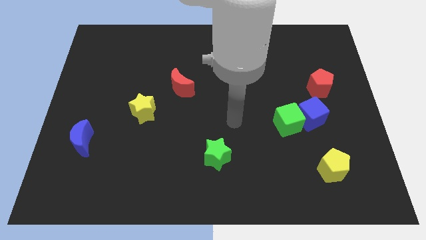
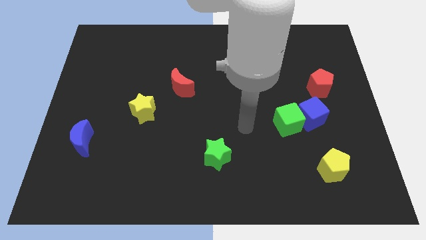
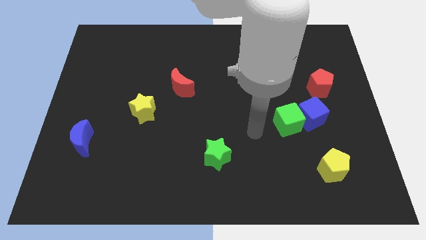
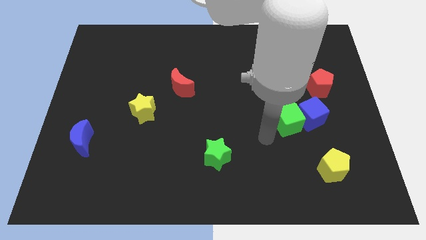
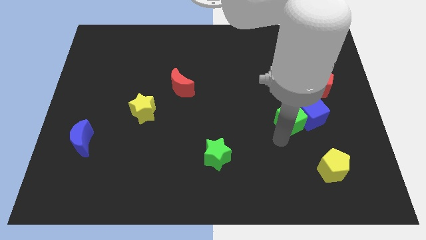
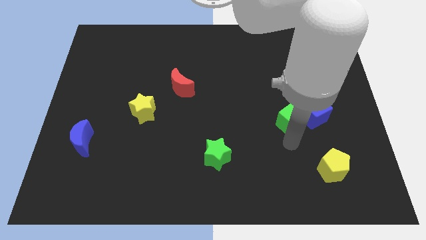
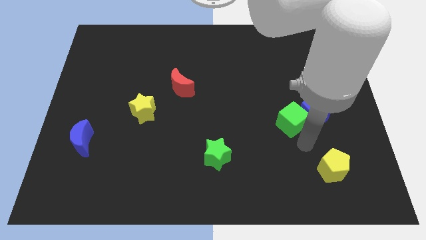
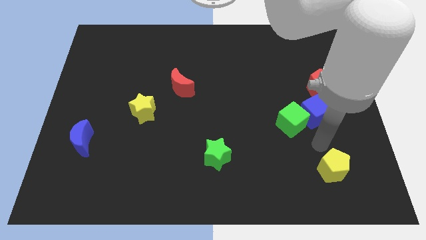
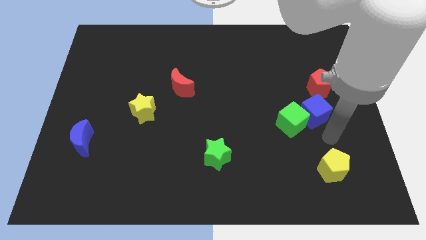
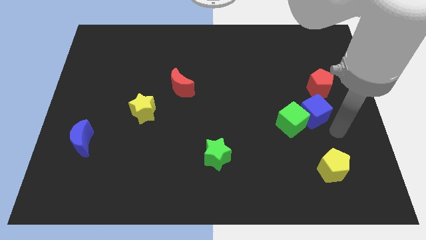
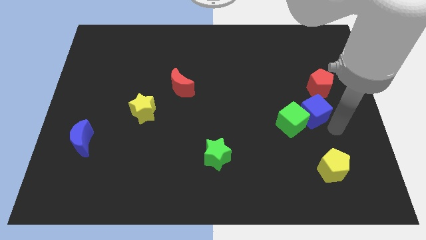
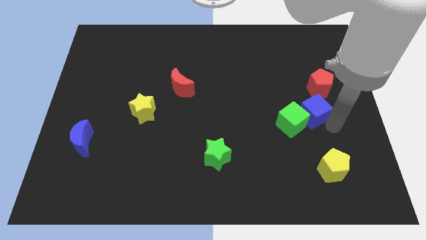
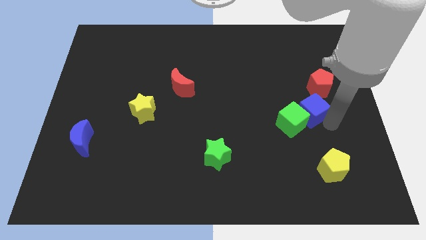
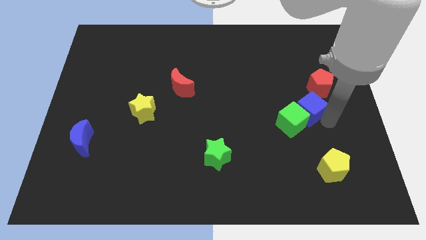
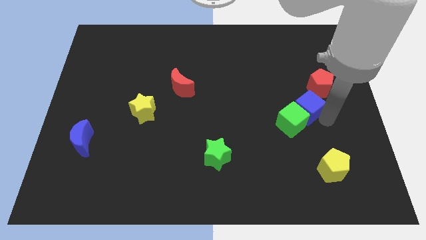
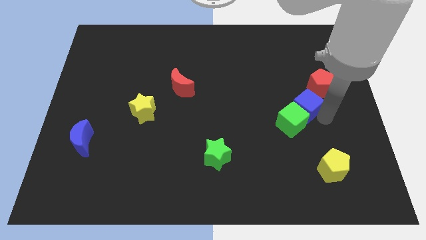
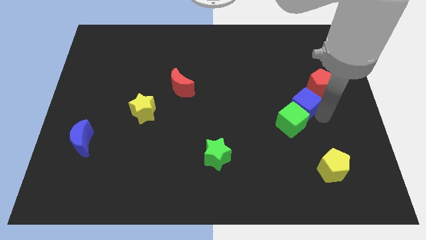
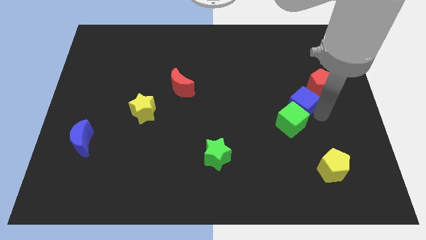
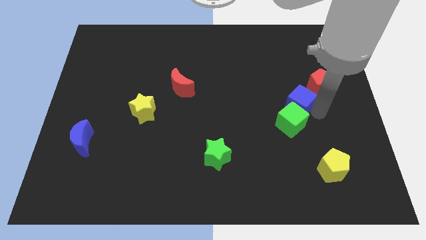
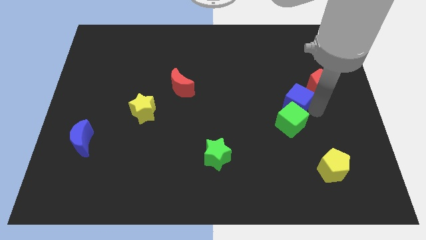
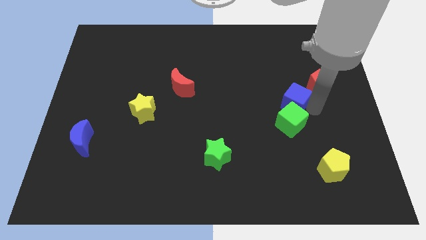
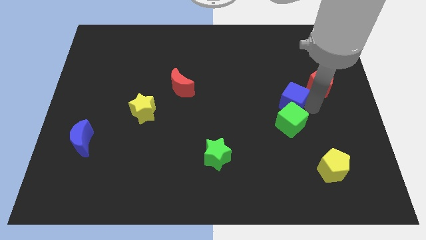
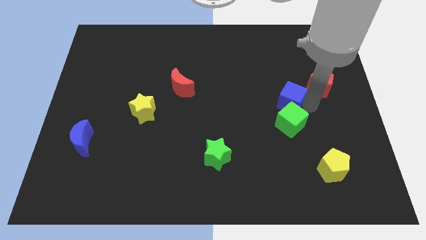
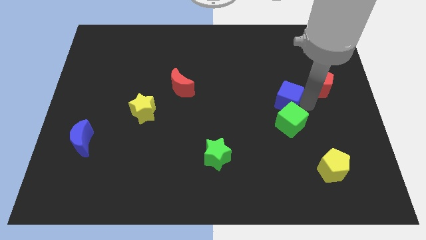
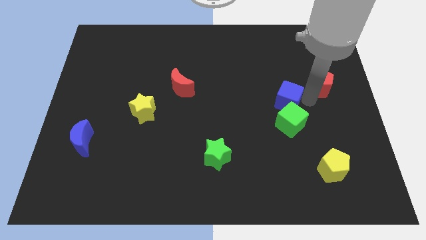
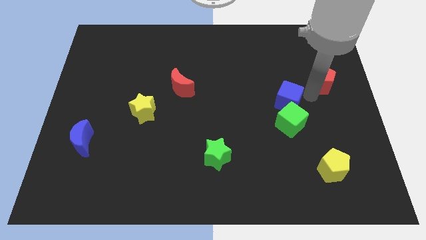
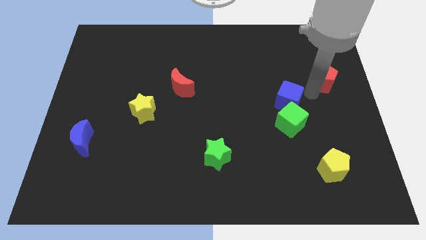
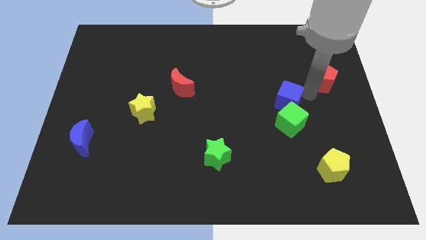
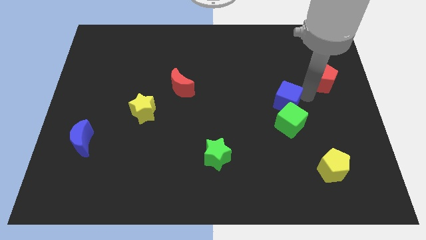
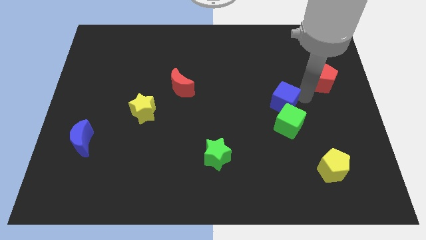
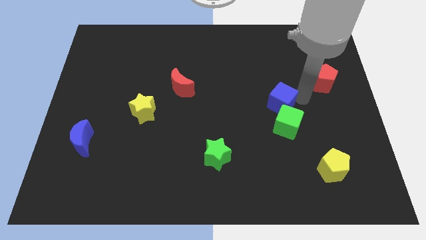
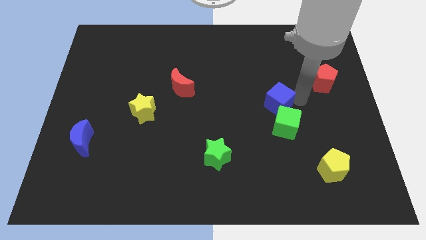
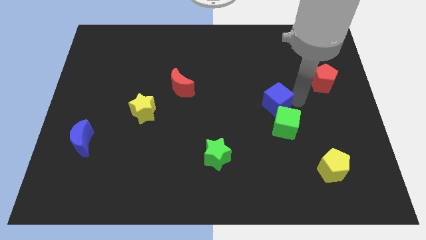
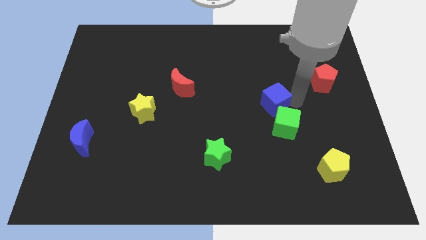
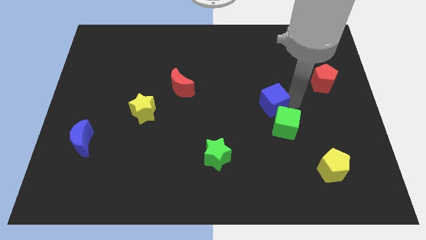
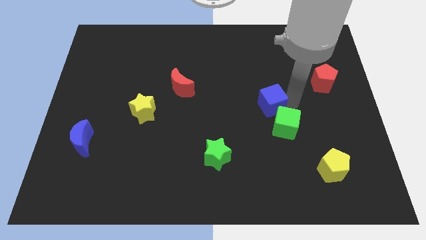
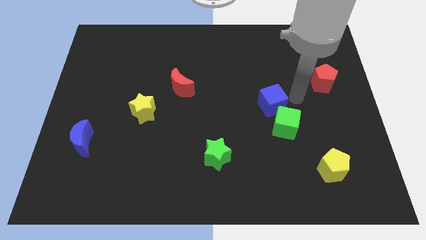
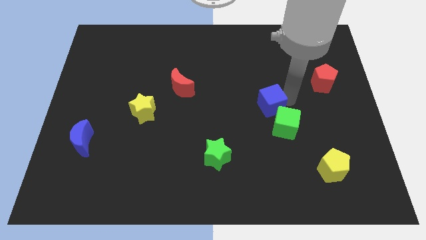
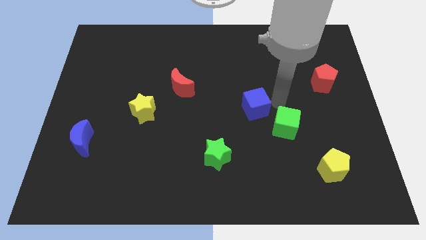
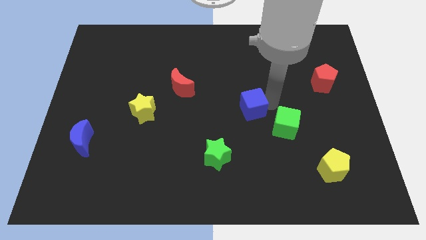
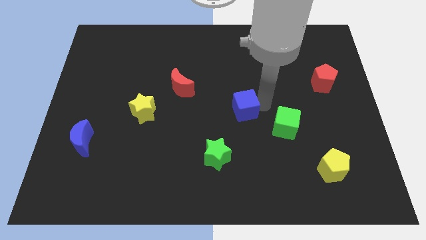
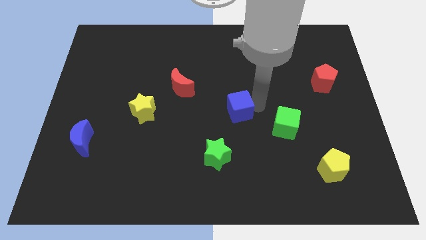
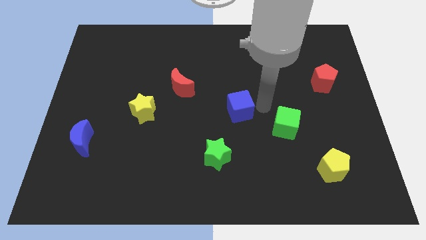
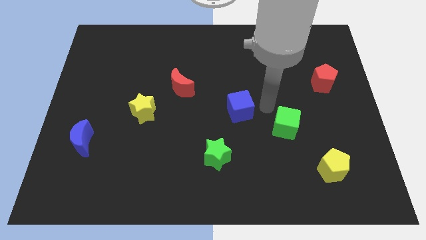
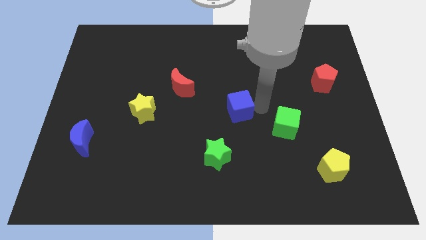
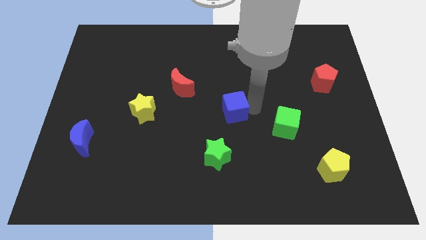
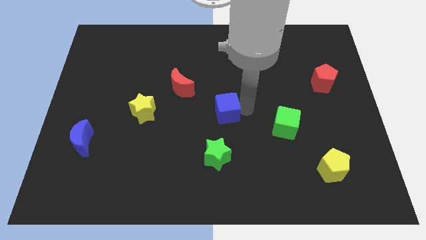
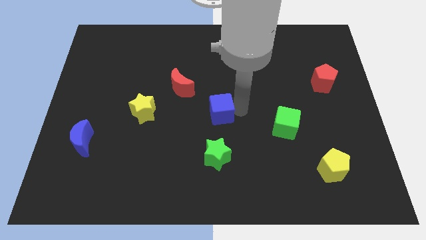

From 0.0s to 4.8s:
move the blue cube to the left

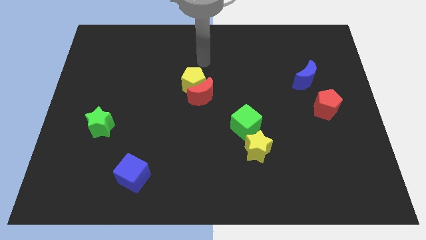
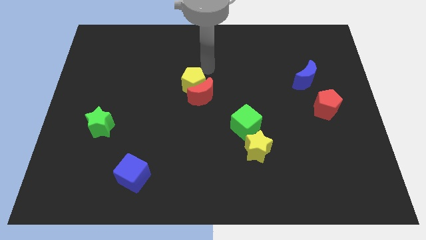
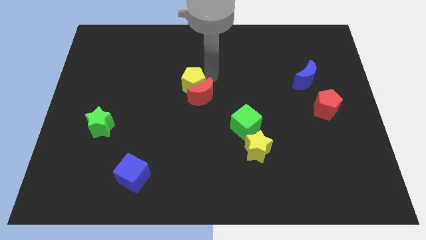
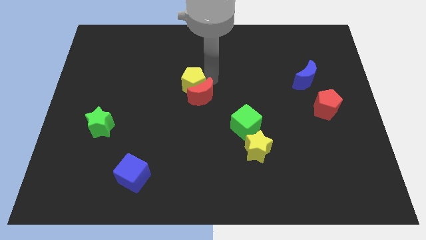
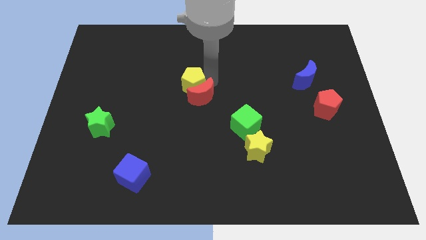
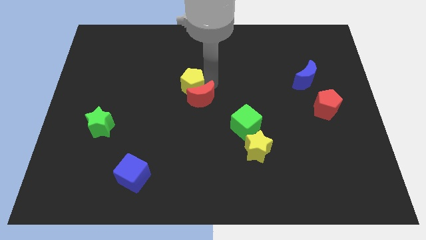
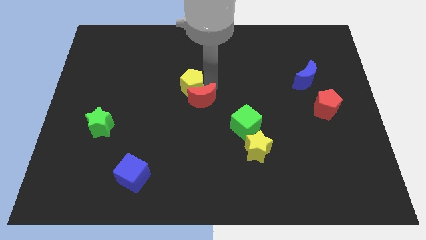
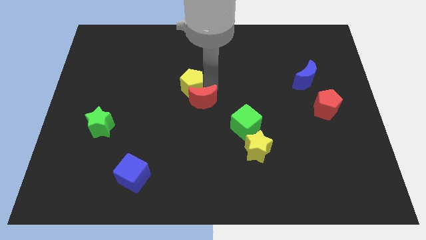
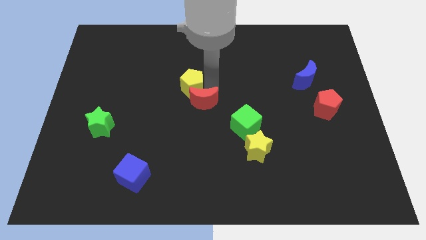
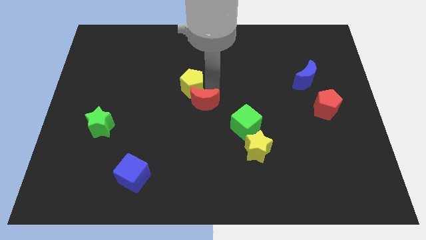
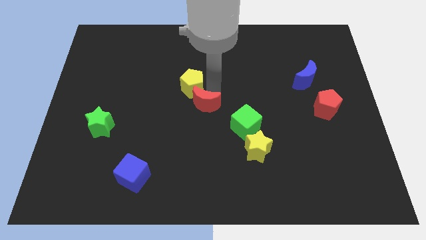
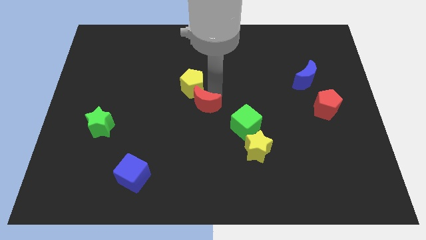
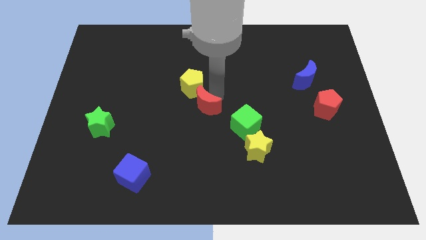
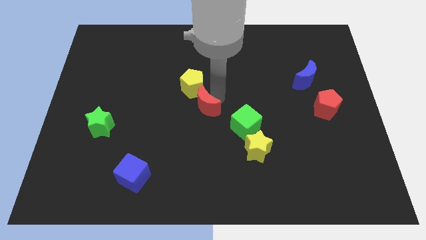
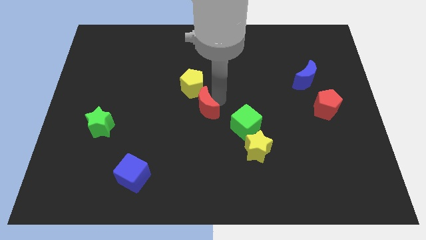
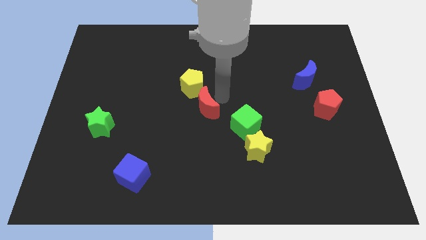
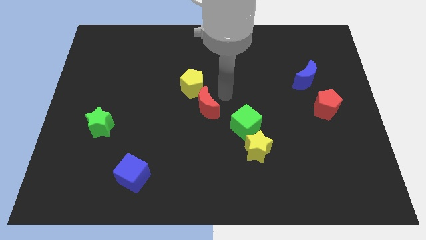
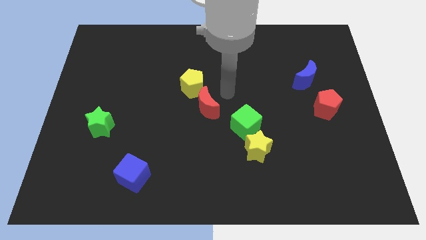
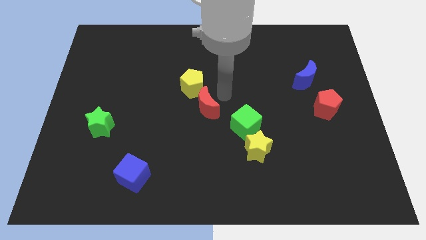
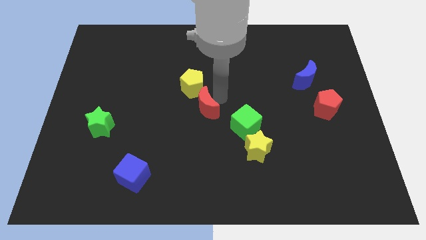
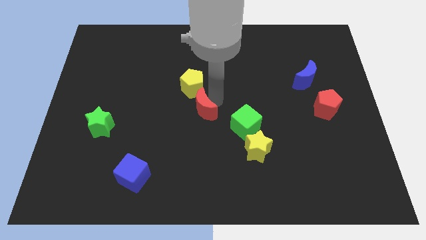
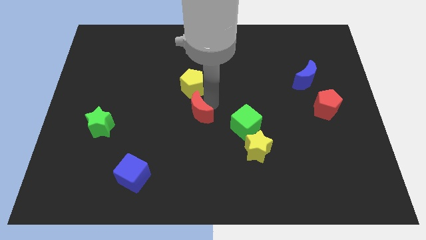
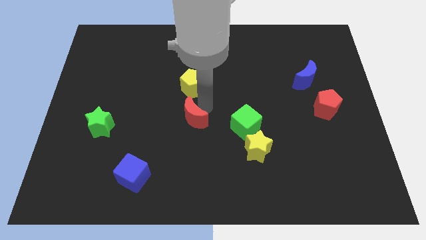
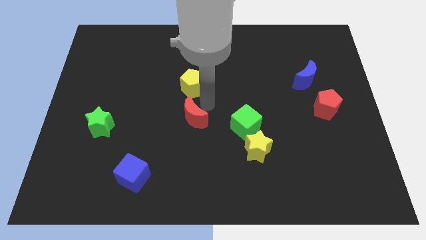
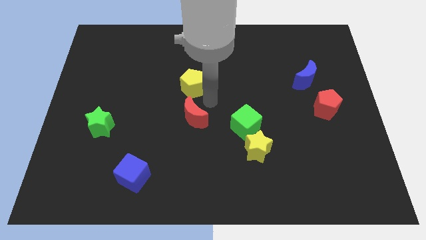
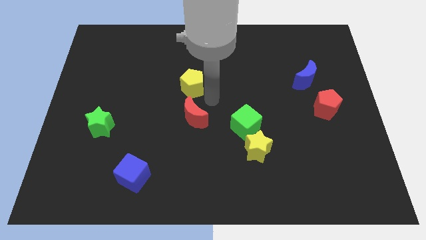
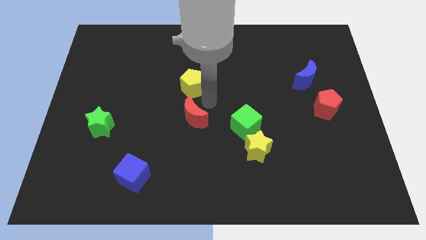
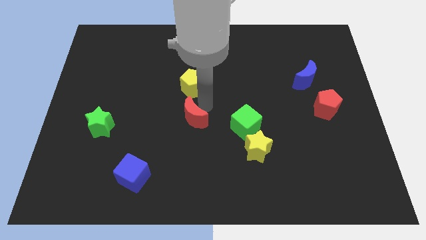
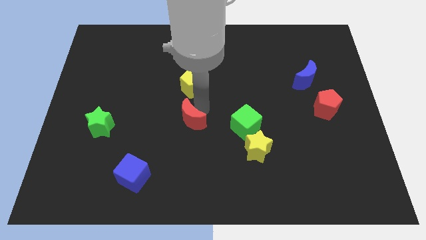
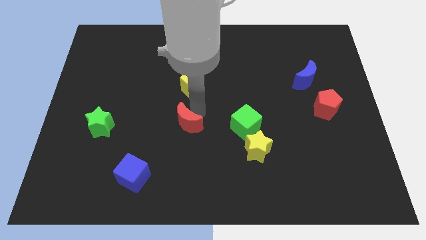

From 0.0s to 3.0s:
slide the red moon down and left somewhat

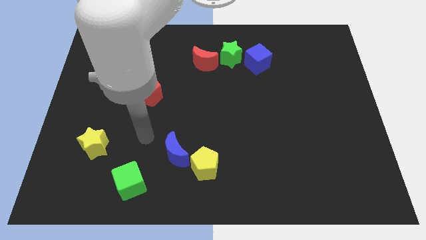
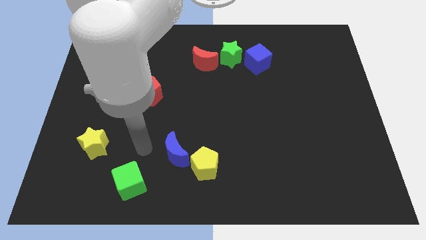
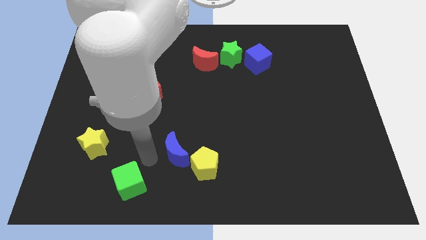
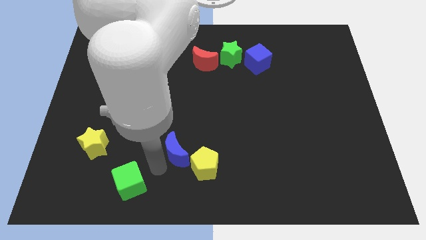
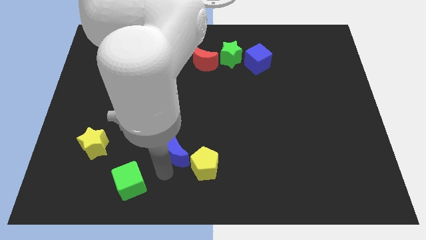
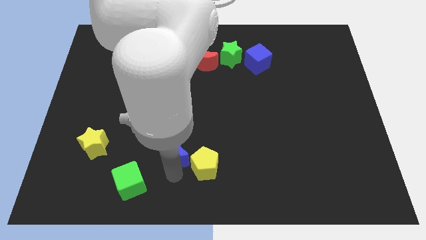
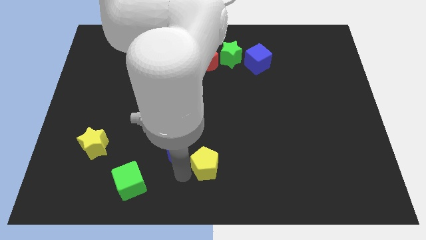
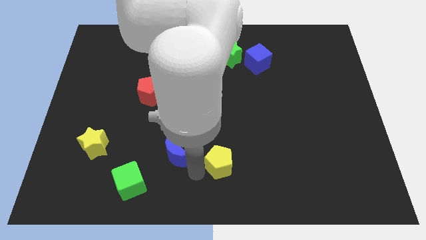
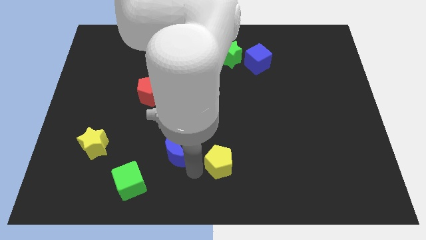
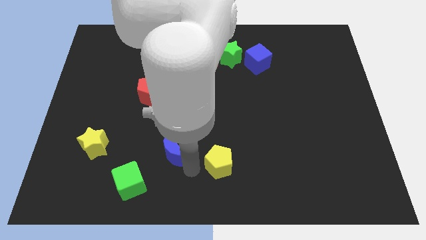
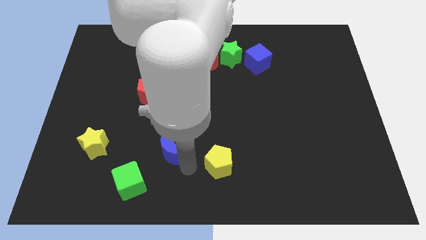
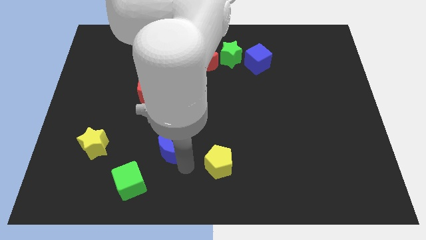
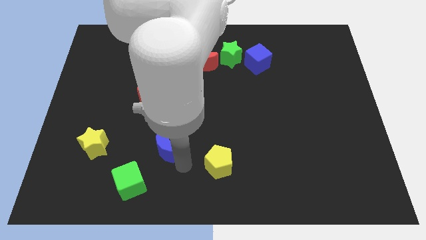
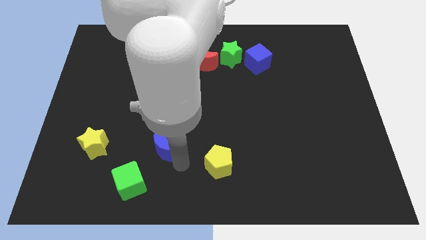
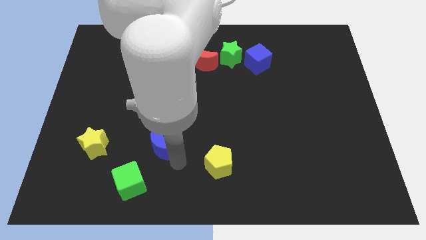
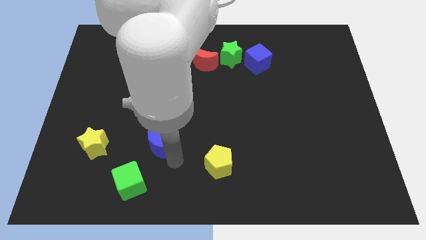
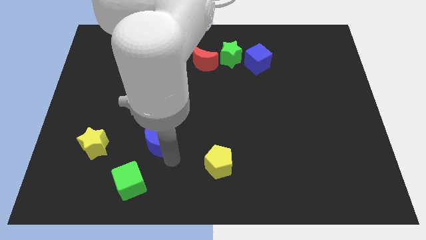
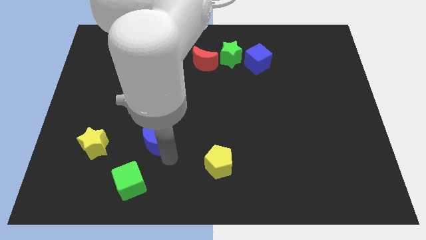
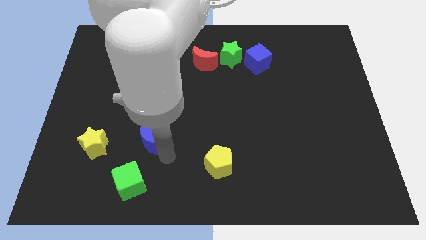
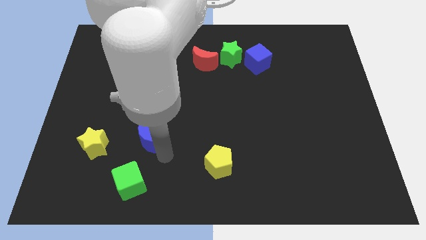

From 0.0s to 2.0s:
slide the blue moon up and left a little
